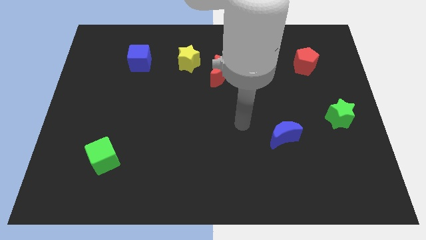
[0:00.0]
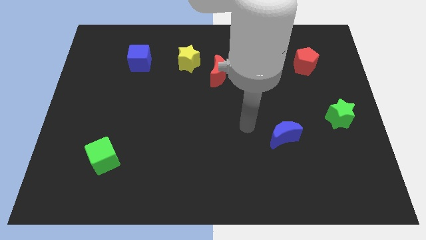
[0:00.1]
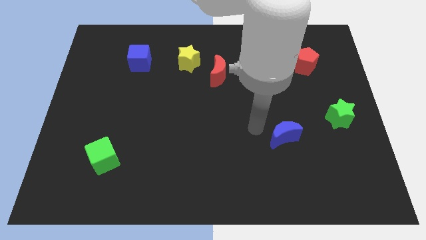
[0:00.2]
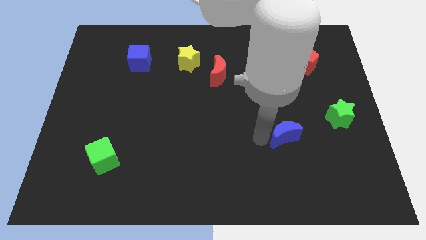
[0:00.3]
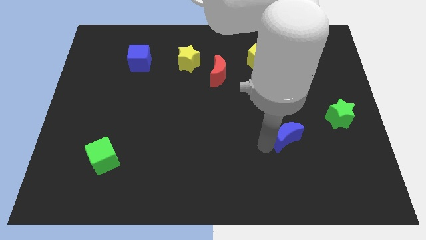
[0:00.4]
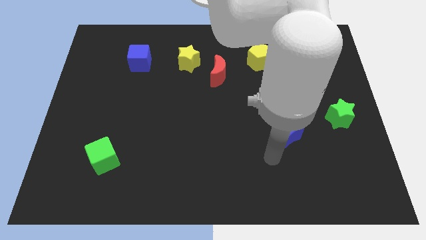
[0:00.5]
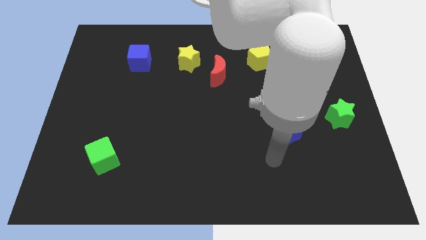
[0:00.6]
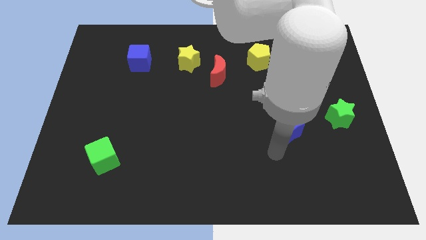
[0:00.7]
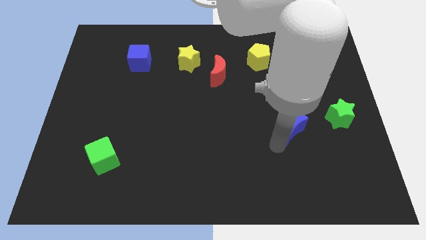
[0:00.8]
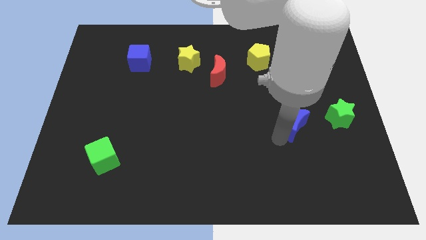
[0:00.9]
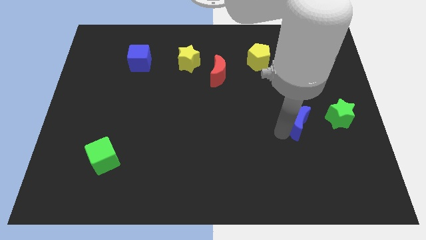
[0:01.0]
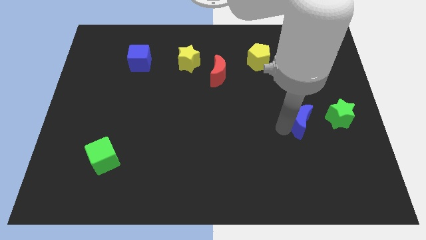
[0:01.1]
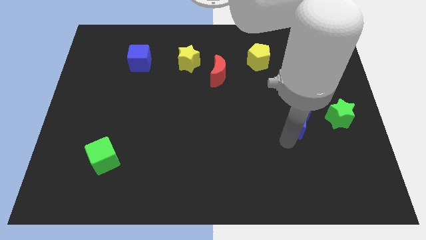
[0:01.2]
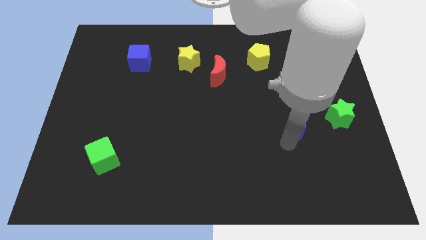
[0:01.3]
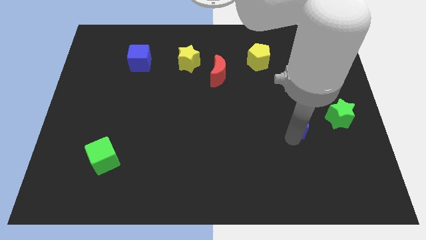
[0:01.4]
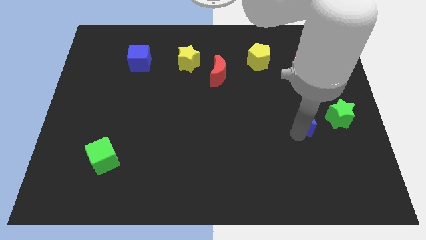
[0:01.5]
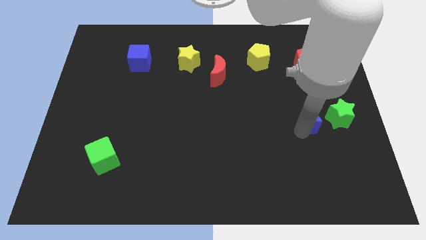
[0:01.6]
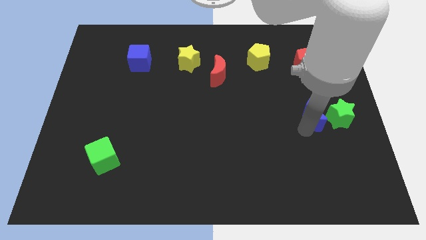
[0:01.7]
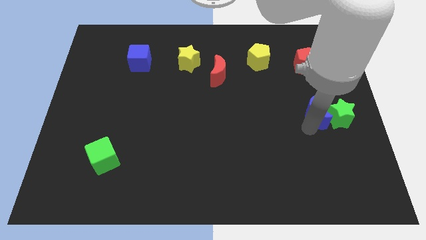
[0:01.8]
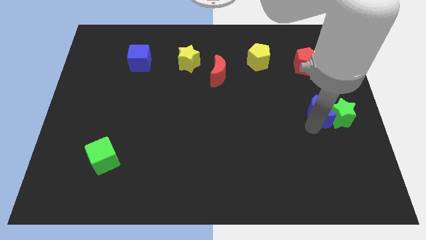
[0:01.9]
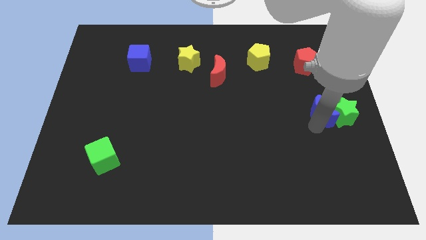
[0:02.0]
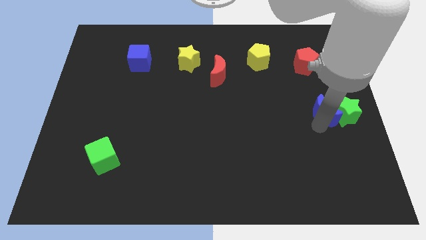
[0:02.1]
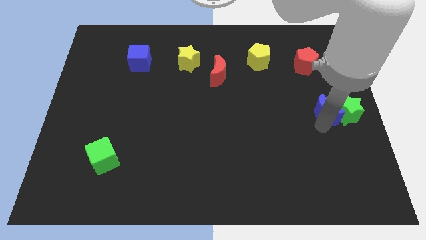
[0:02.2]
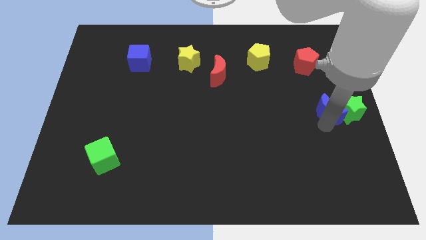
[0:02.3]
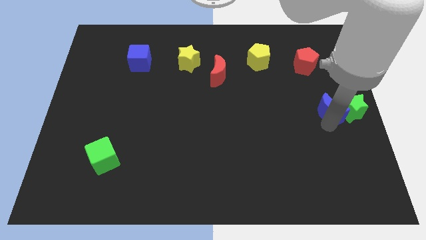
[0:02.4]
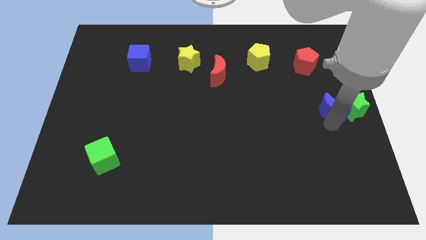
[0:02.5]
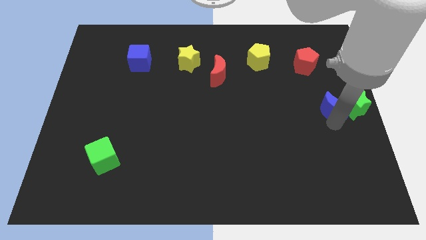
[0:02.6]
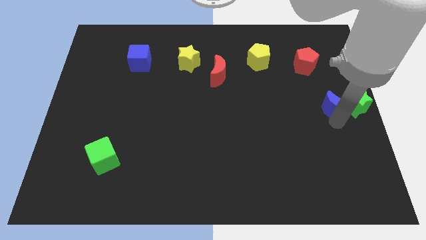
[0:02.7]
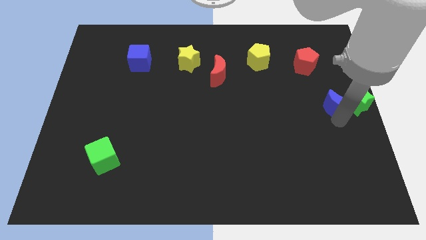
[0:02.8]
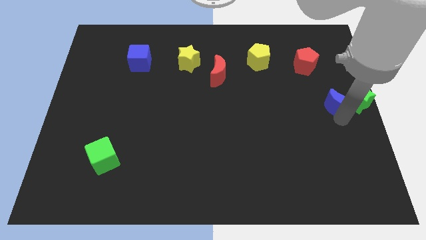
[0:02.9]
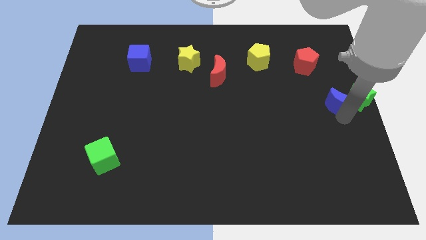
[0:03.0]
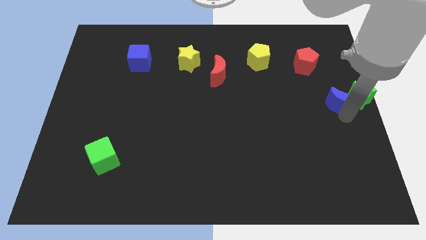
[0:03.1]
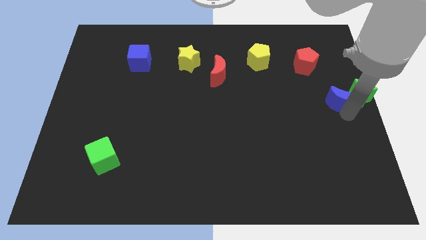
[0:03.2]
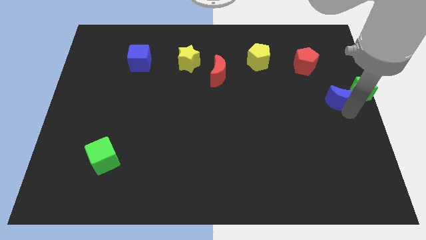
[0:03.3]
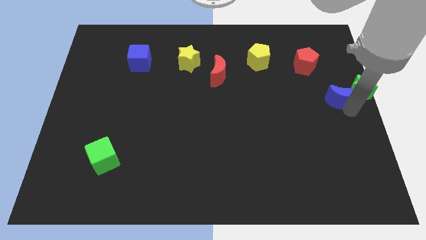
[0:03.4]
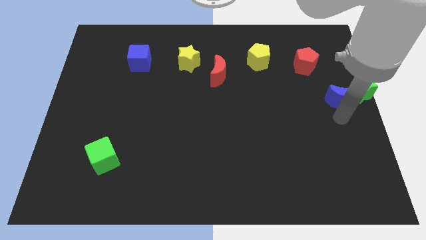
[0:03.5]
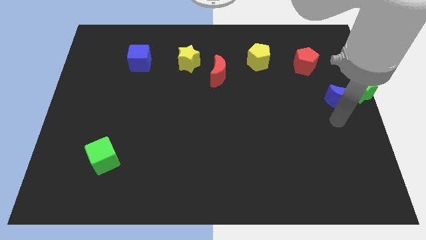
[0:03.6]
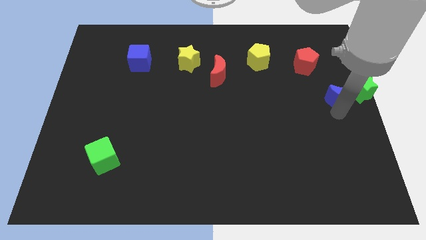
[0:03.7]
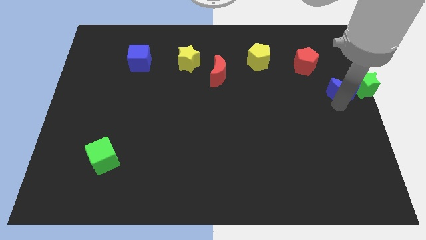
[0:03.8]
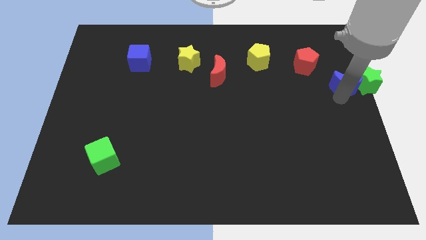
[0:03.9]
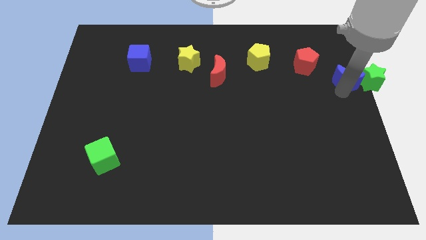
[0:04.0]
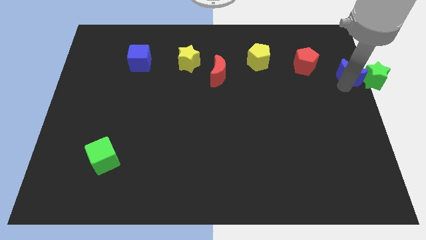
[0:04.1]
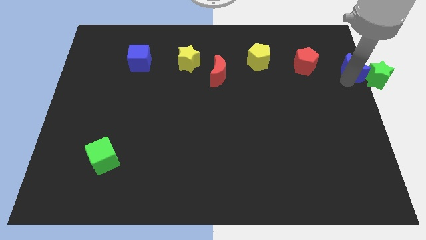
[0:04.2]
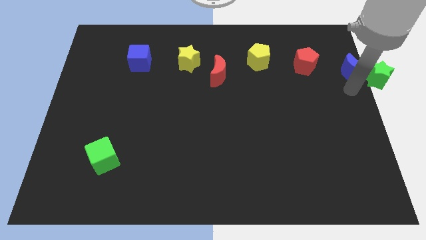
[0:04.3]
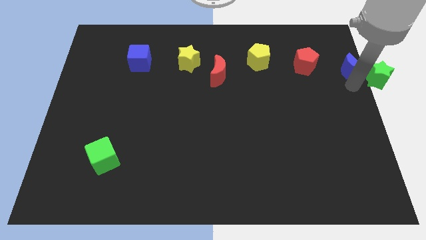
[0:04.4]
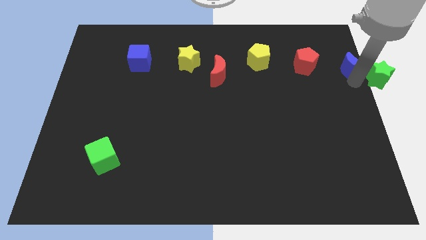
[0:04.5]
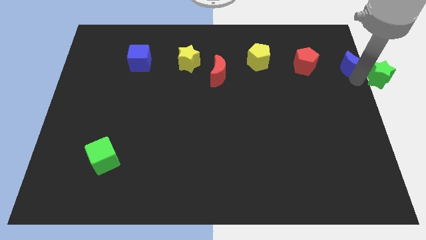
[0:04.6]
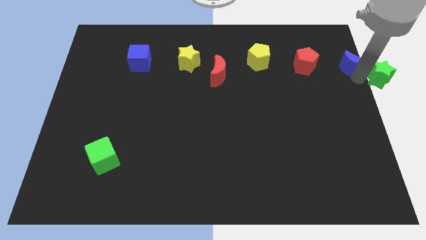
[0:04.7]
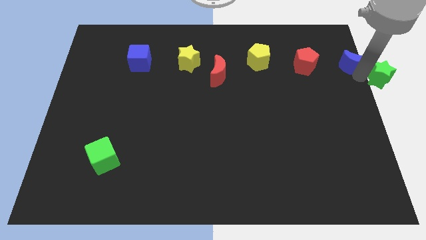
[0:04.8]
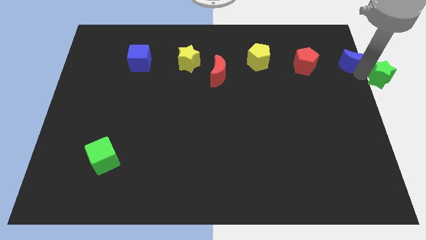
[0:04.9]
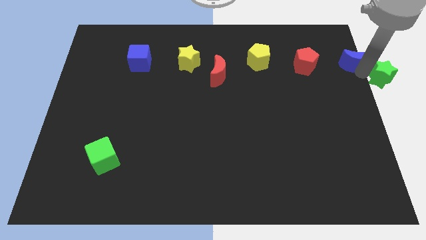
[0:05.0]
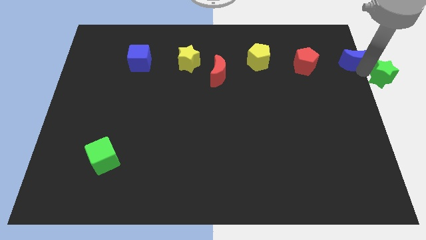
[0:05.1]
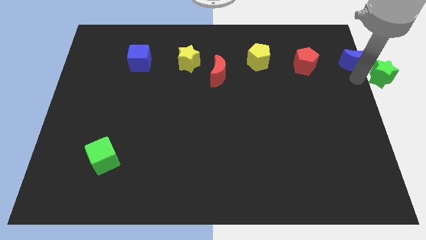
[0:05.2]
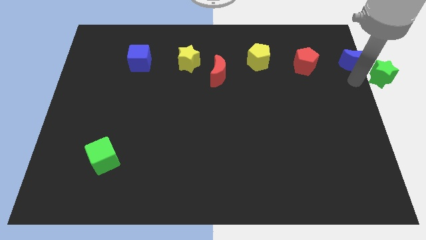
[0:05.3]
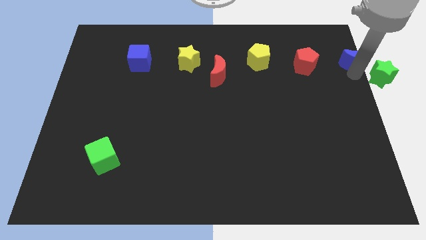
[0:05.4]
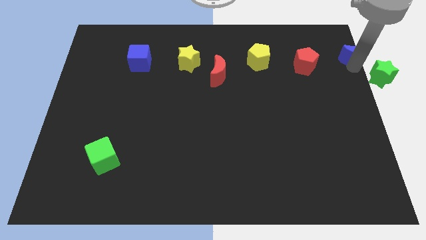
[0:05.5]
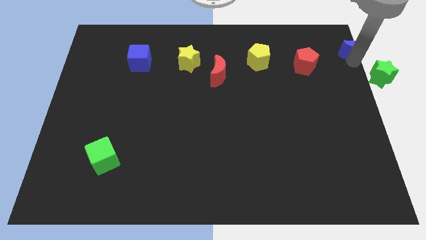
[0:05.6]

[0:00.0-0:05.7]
put the blue moon to the top right corner
